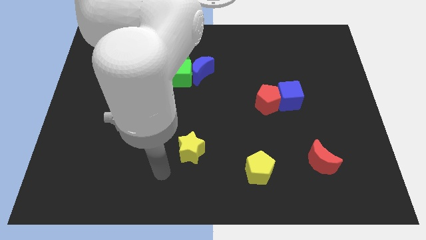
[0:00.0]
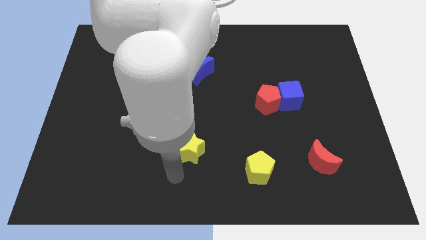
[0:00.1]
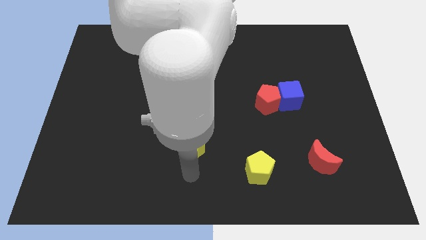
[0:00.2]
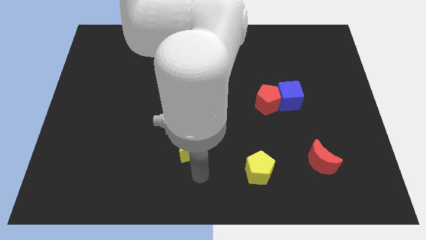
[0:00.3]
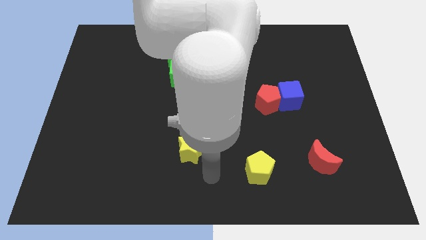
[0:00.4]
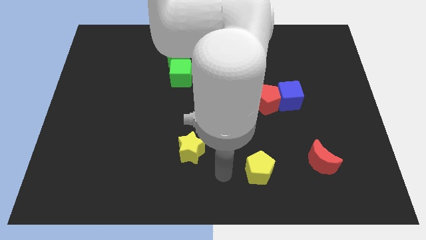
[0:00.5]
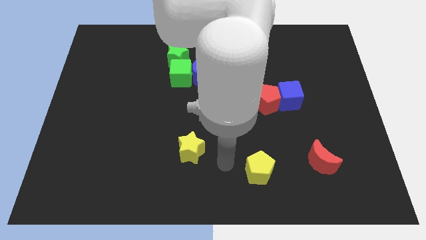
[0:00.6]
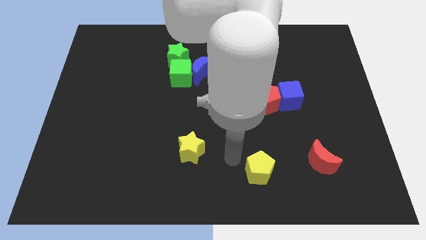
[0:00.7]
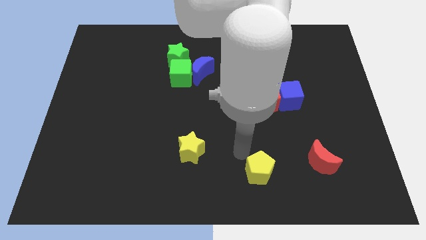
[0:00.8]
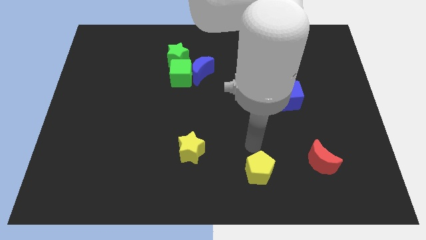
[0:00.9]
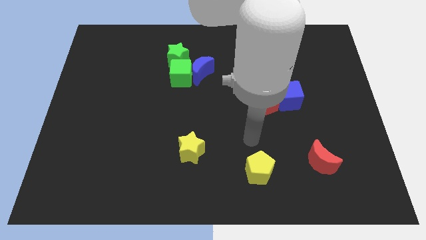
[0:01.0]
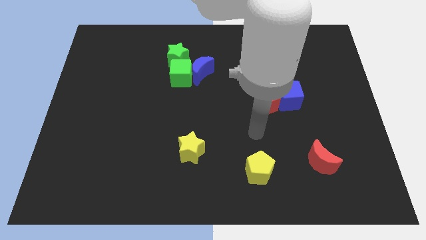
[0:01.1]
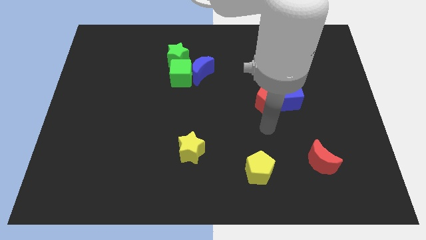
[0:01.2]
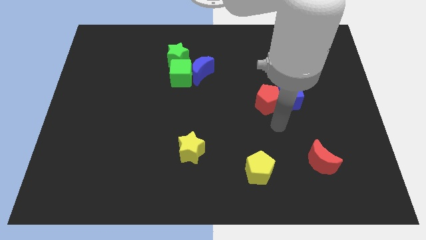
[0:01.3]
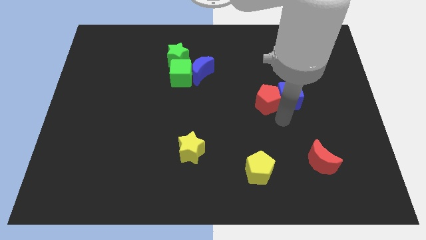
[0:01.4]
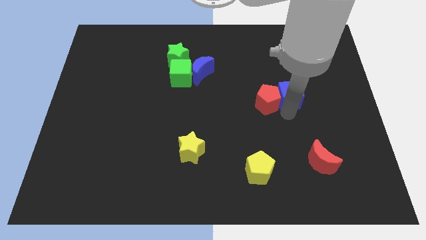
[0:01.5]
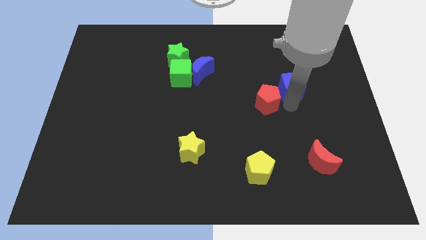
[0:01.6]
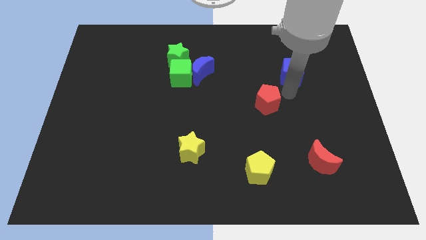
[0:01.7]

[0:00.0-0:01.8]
pull the red pentagon apart from the blue cube

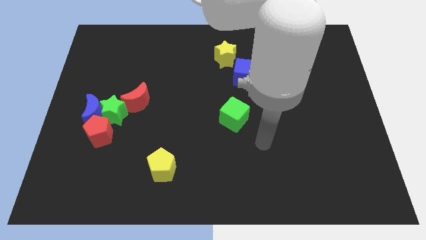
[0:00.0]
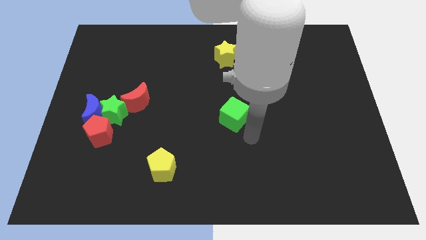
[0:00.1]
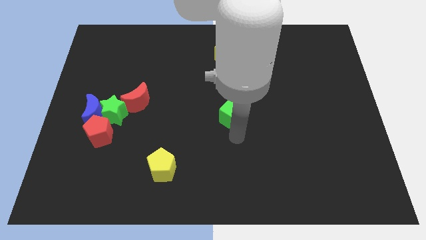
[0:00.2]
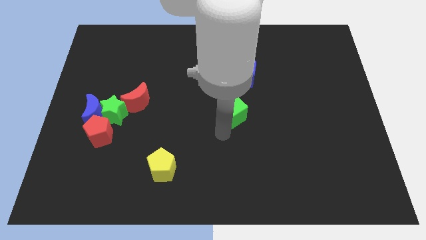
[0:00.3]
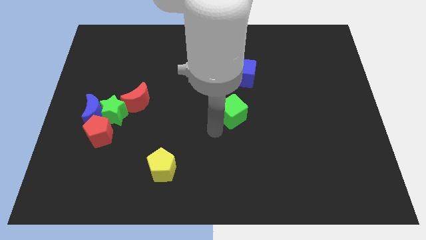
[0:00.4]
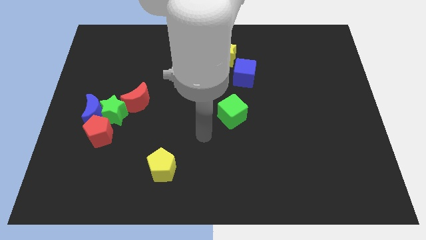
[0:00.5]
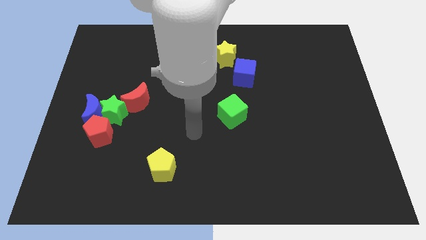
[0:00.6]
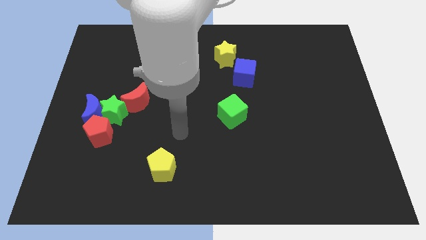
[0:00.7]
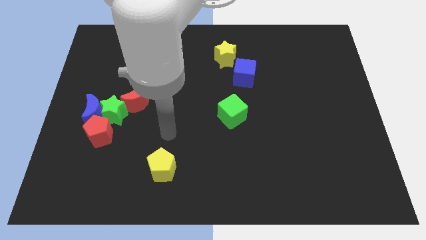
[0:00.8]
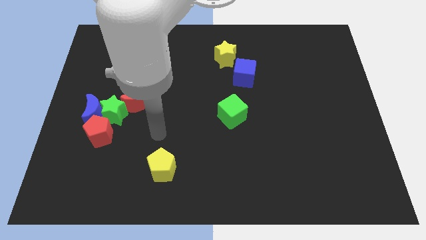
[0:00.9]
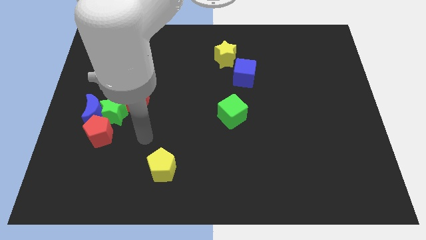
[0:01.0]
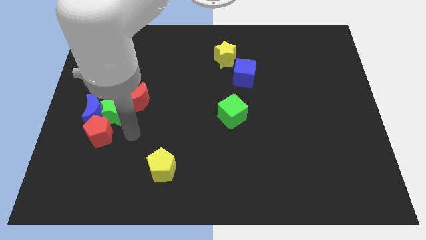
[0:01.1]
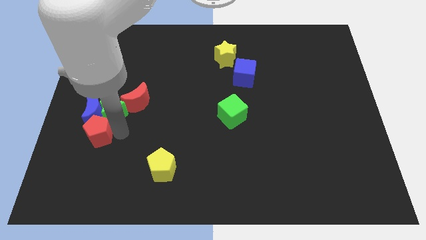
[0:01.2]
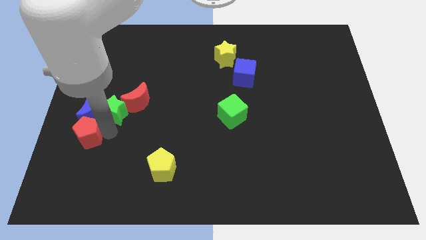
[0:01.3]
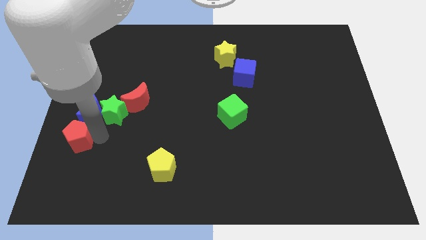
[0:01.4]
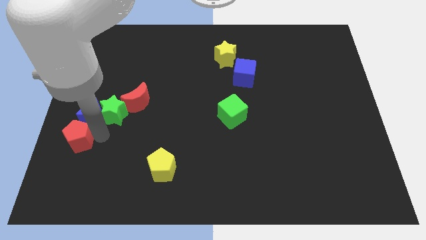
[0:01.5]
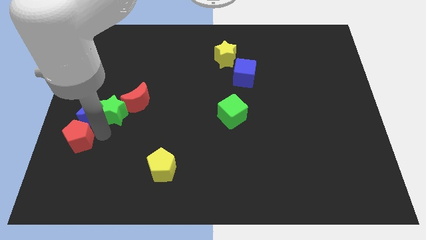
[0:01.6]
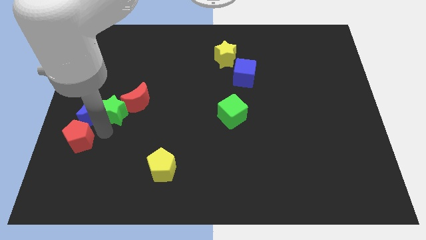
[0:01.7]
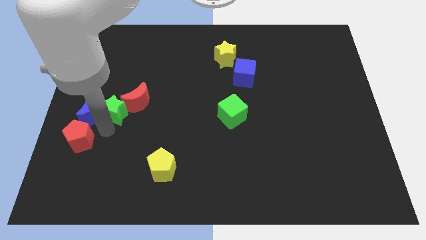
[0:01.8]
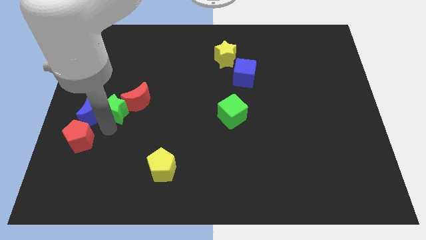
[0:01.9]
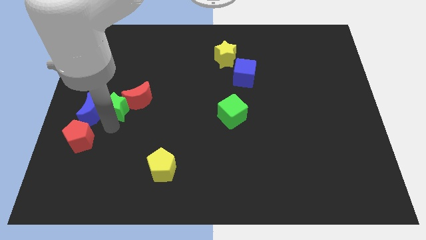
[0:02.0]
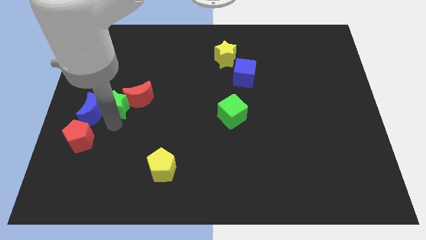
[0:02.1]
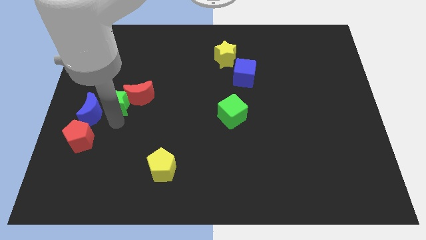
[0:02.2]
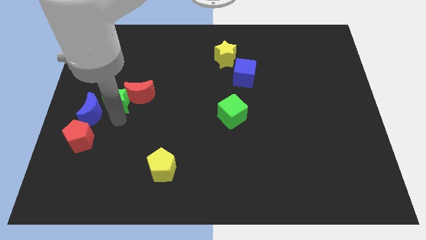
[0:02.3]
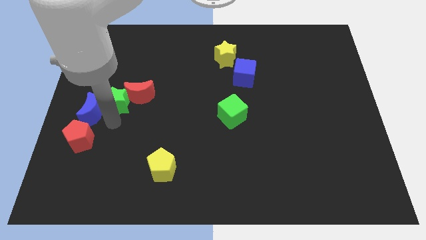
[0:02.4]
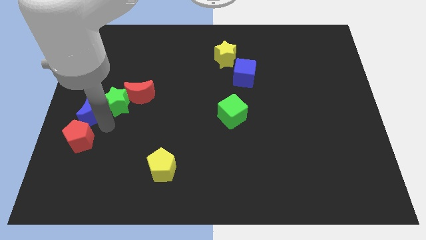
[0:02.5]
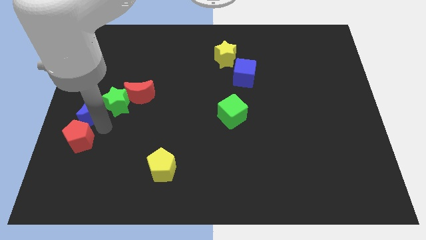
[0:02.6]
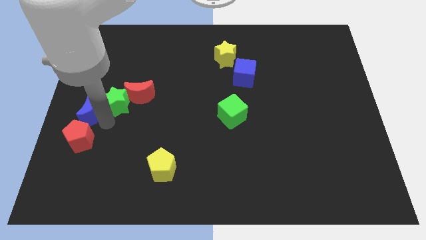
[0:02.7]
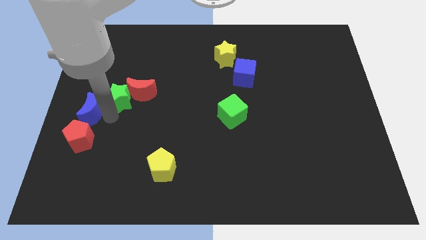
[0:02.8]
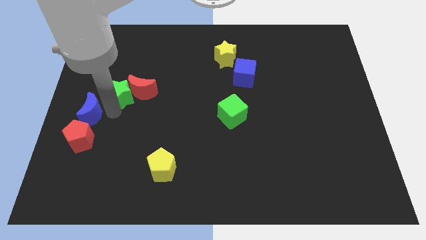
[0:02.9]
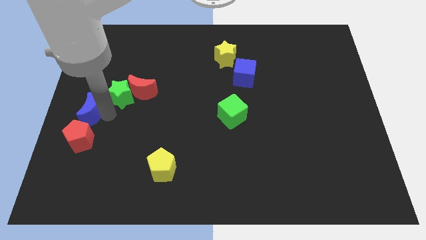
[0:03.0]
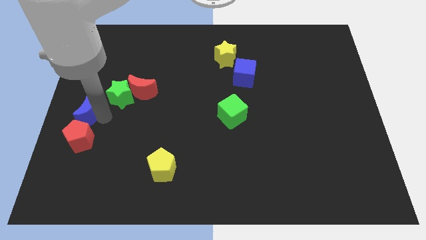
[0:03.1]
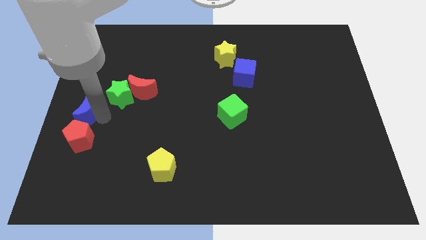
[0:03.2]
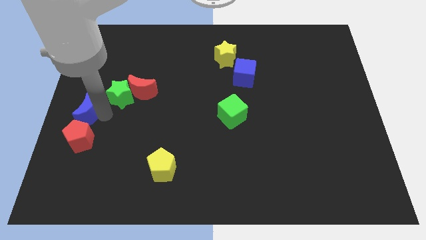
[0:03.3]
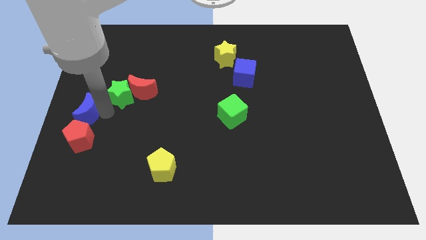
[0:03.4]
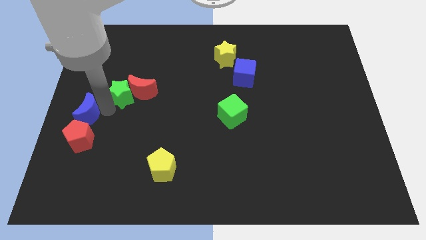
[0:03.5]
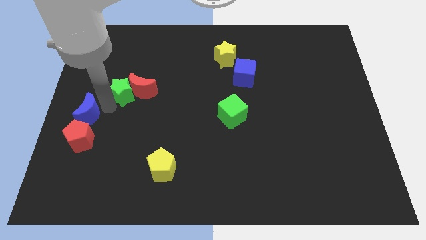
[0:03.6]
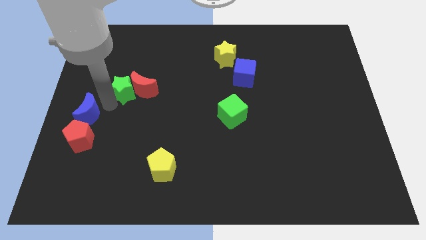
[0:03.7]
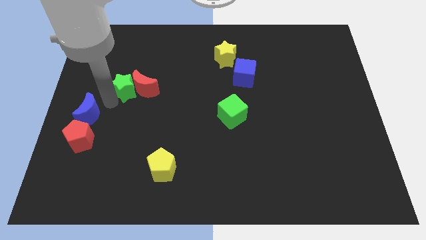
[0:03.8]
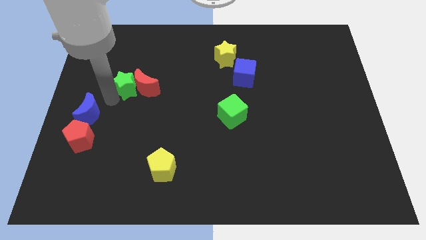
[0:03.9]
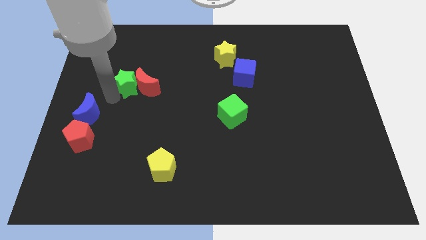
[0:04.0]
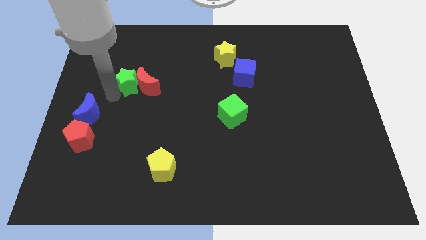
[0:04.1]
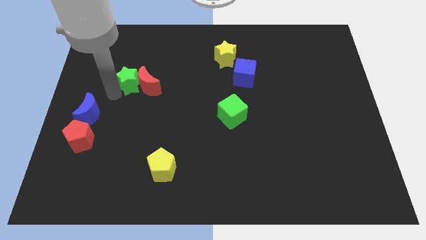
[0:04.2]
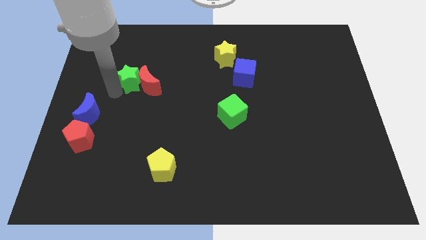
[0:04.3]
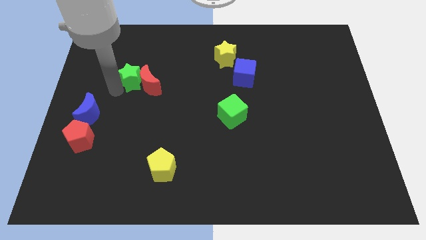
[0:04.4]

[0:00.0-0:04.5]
pull the green star apart from the group of blocks

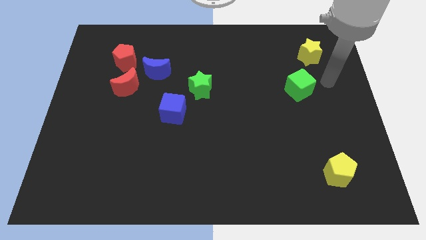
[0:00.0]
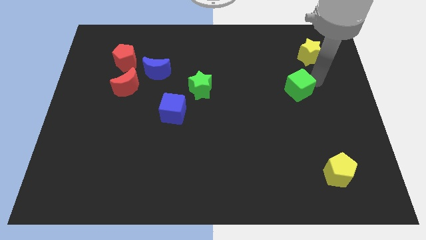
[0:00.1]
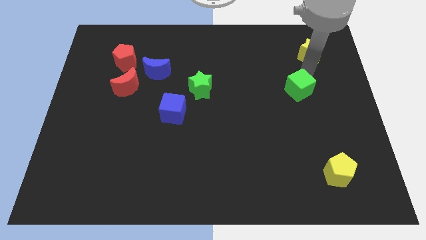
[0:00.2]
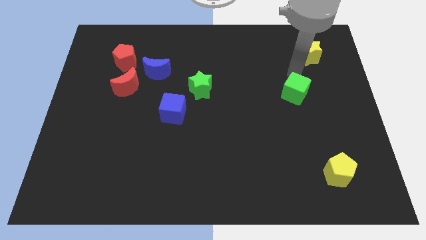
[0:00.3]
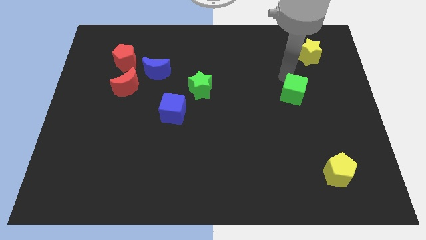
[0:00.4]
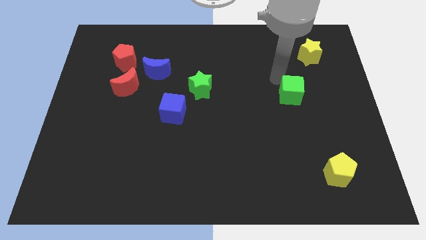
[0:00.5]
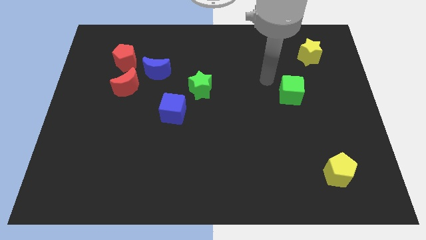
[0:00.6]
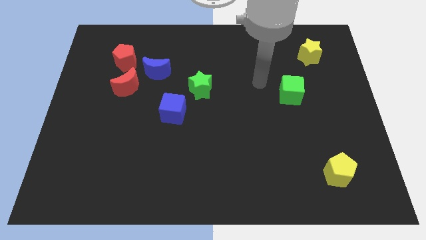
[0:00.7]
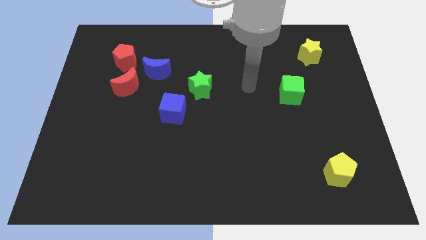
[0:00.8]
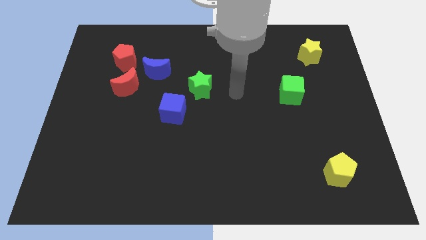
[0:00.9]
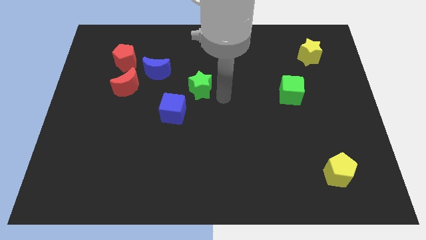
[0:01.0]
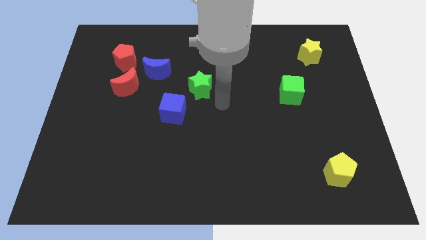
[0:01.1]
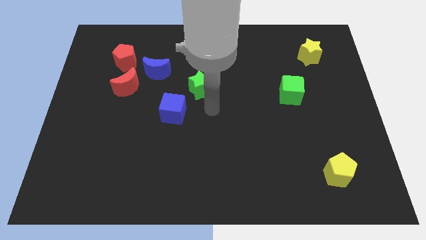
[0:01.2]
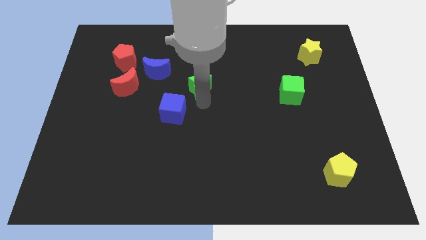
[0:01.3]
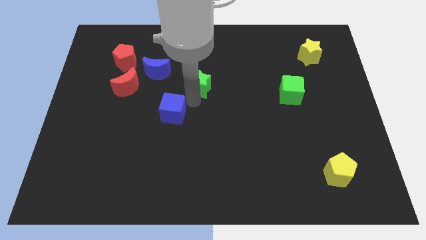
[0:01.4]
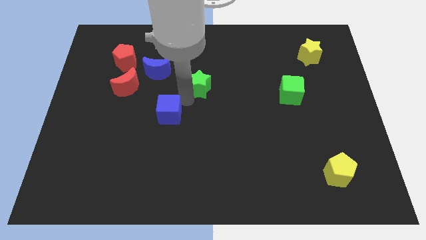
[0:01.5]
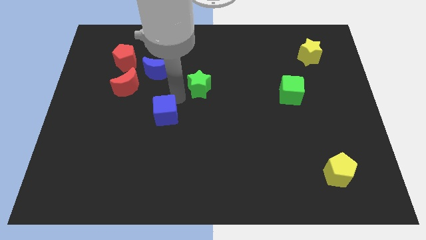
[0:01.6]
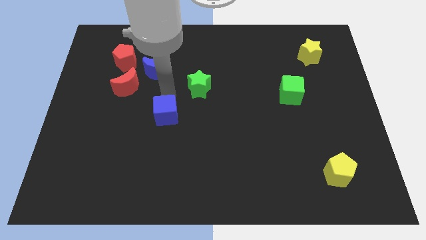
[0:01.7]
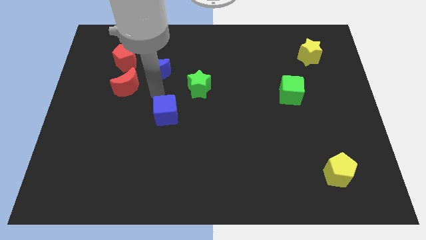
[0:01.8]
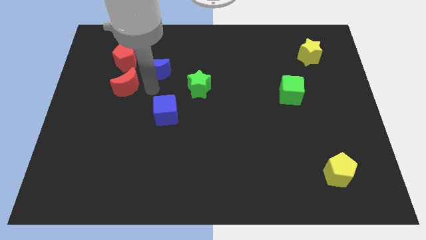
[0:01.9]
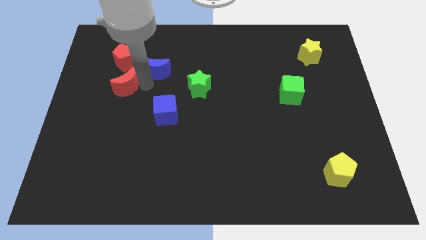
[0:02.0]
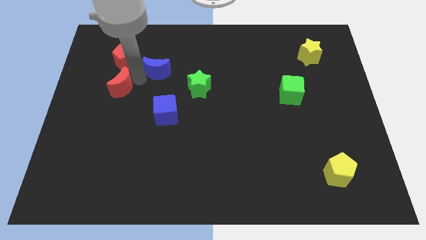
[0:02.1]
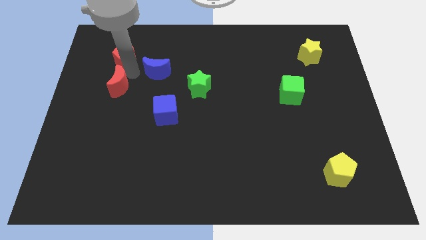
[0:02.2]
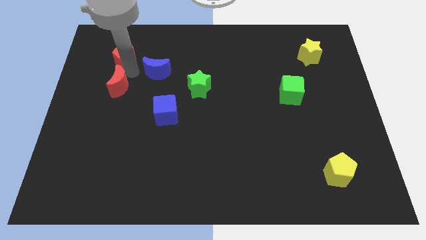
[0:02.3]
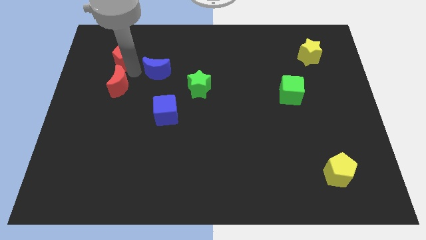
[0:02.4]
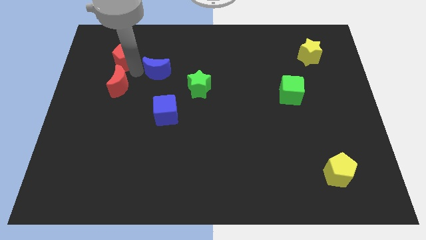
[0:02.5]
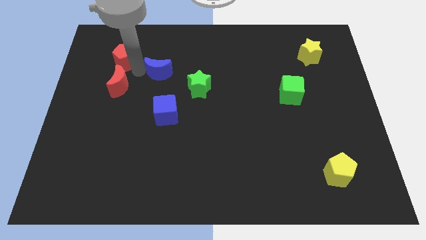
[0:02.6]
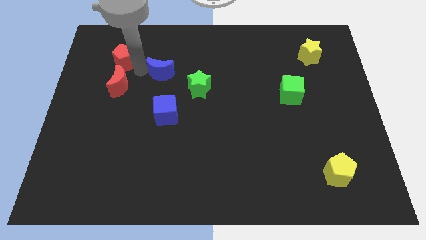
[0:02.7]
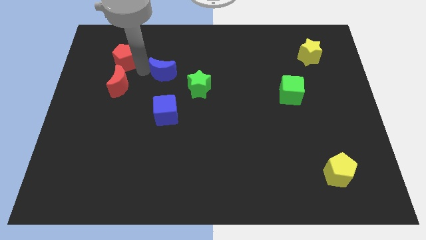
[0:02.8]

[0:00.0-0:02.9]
move the blue moon away from the red moon and red pentagon

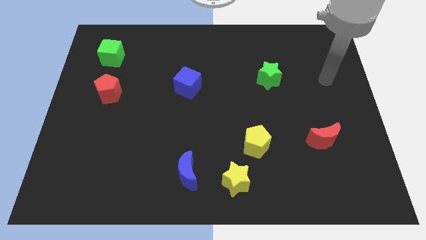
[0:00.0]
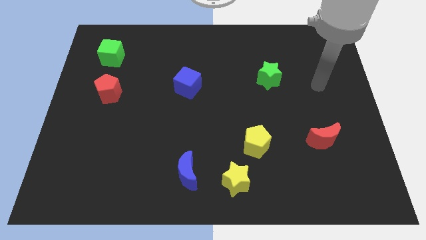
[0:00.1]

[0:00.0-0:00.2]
move the blue moon away from the yellow star
